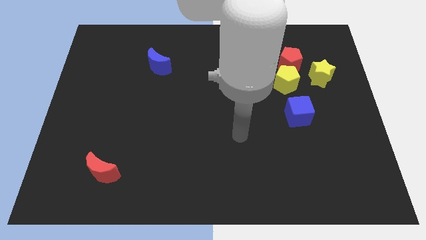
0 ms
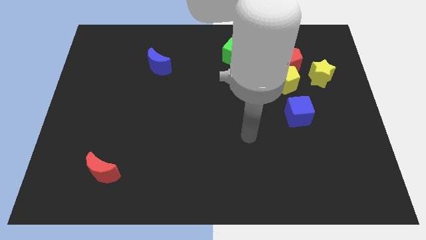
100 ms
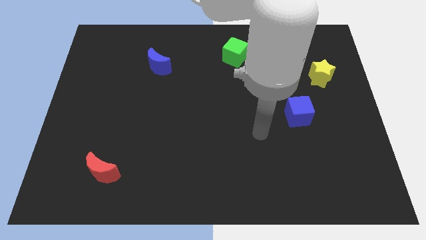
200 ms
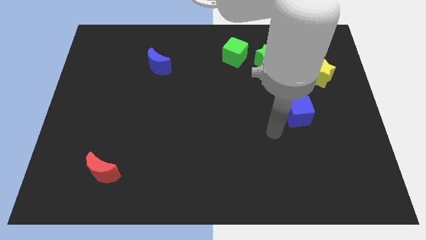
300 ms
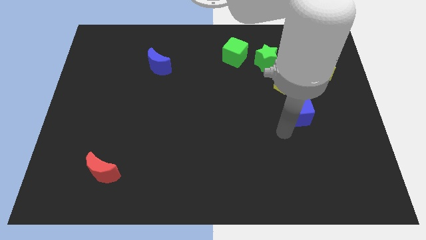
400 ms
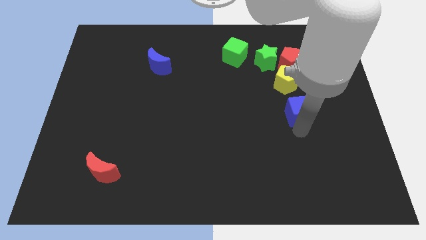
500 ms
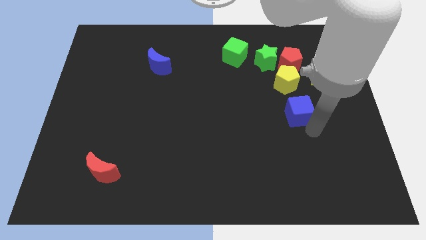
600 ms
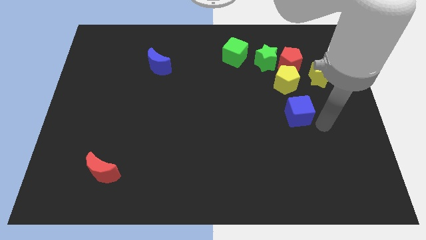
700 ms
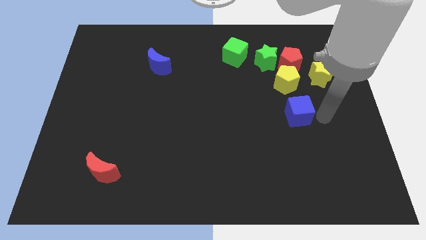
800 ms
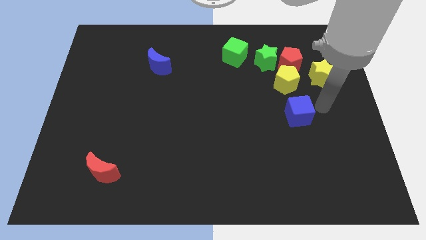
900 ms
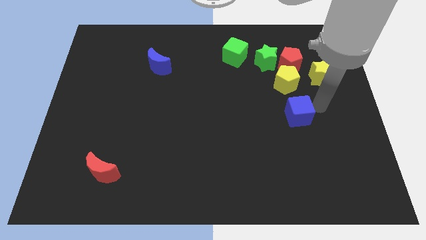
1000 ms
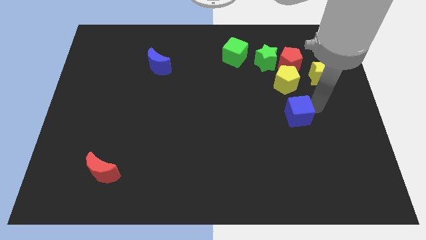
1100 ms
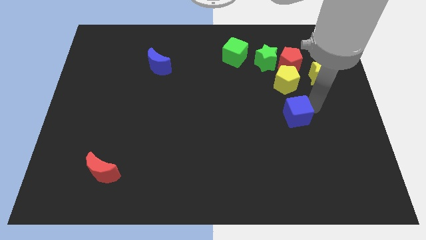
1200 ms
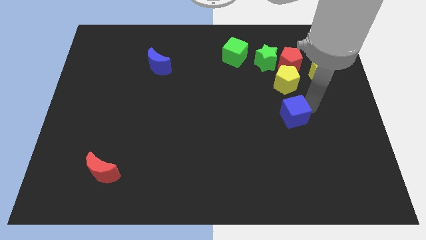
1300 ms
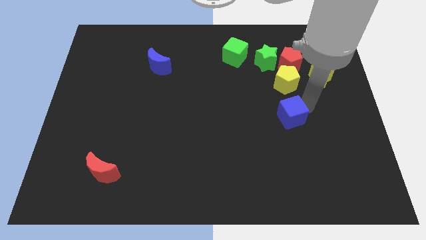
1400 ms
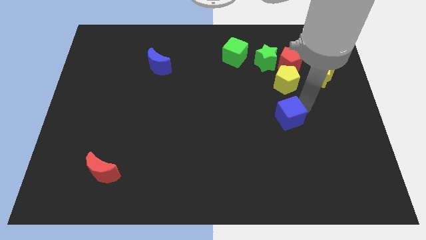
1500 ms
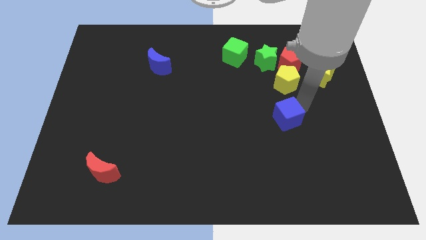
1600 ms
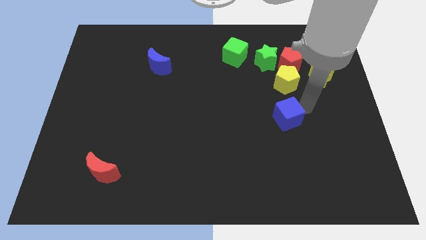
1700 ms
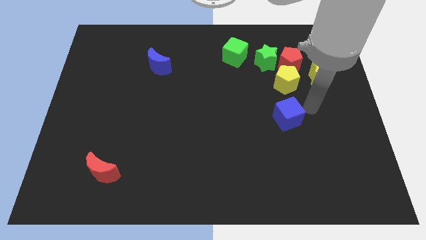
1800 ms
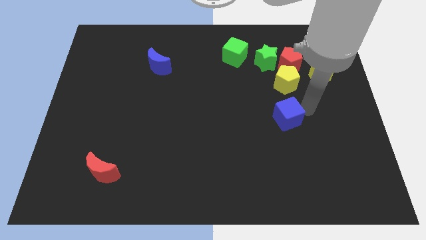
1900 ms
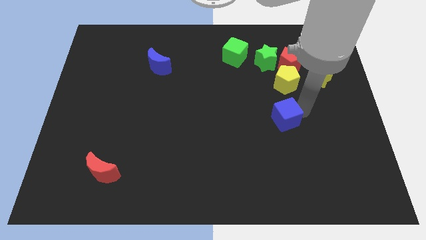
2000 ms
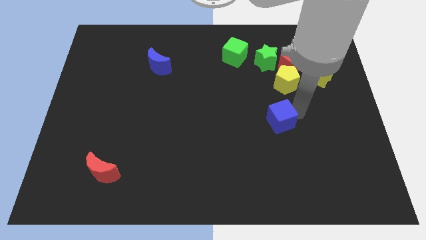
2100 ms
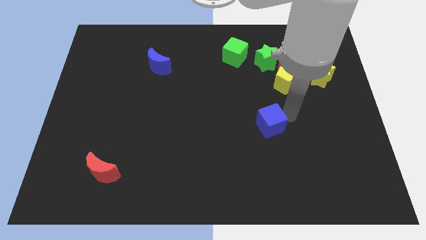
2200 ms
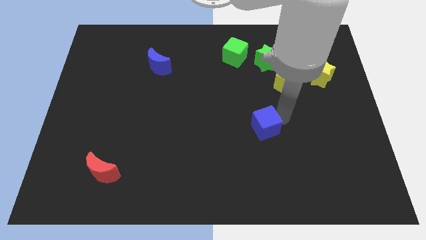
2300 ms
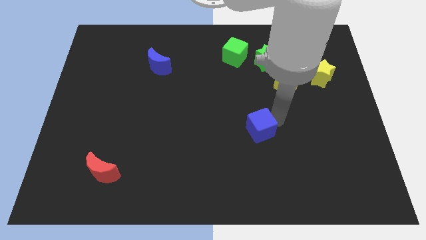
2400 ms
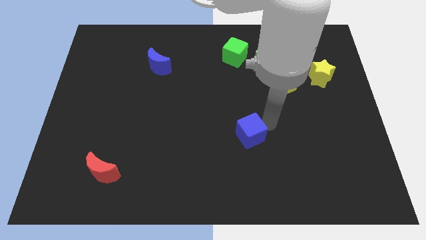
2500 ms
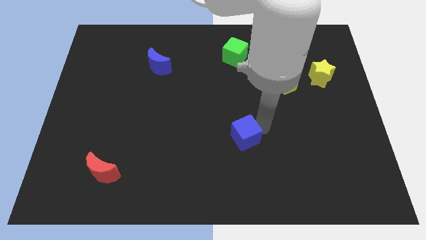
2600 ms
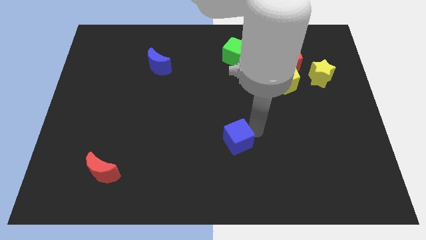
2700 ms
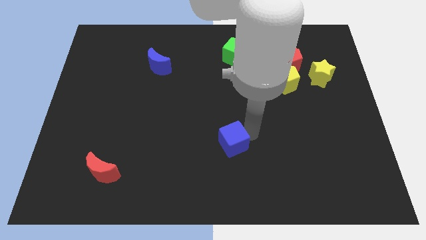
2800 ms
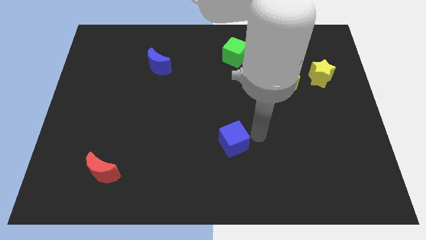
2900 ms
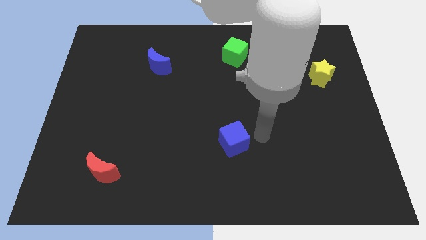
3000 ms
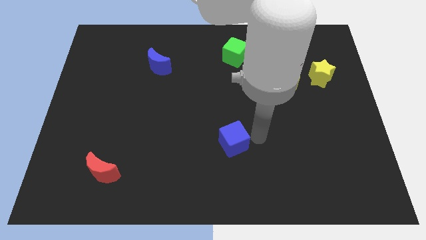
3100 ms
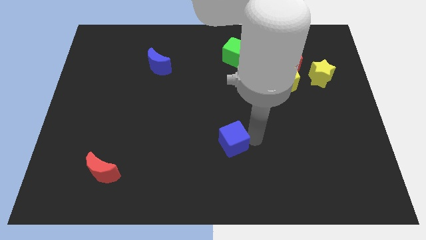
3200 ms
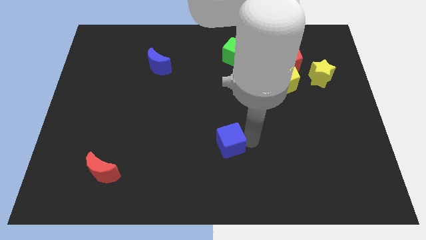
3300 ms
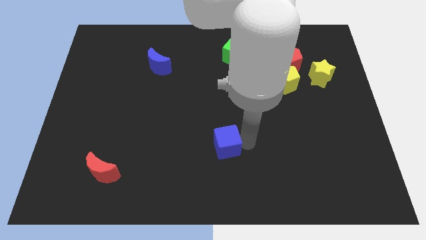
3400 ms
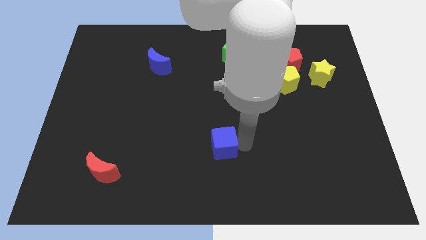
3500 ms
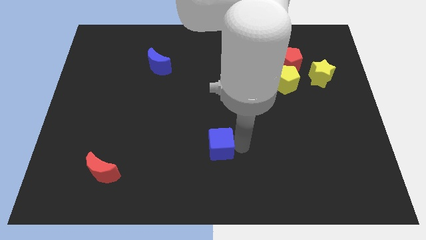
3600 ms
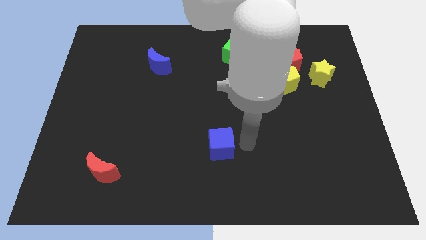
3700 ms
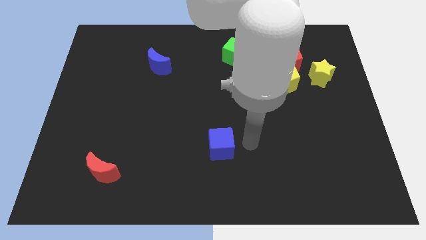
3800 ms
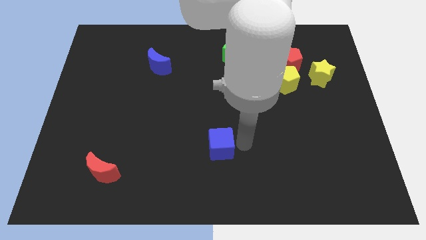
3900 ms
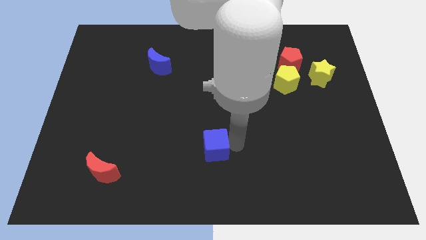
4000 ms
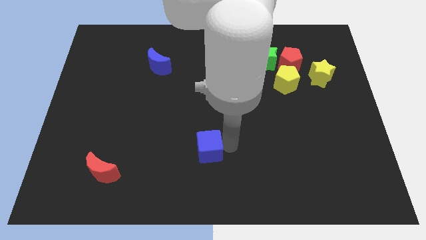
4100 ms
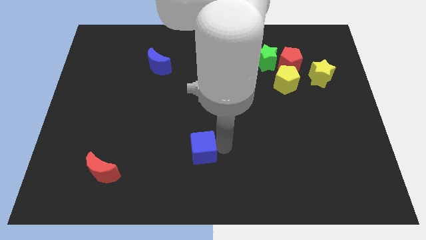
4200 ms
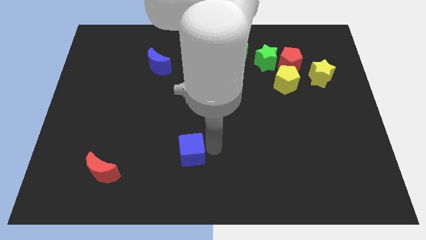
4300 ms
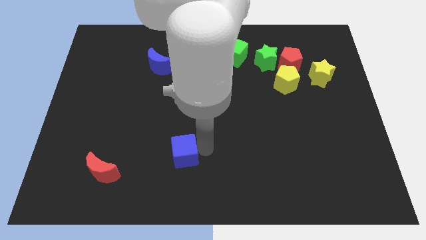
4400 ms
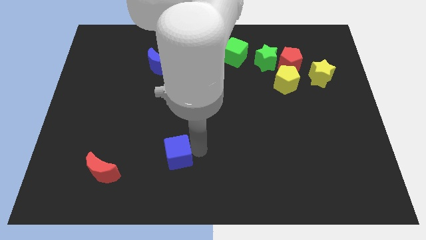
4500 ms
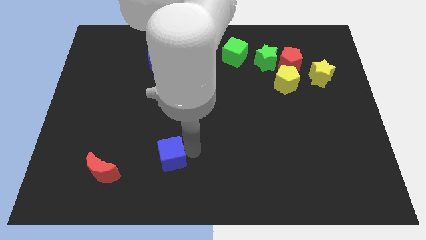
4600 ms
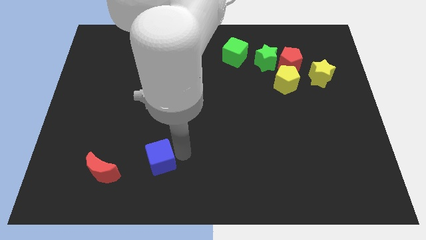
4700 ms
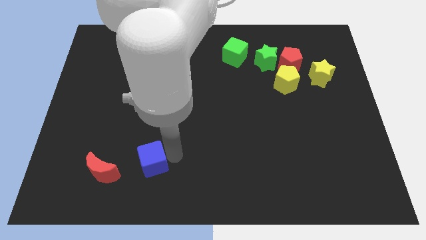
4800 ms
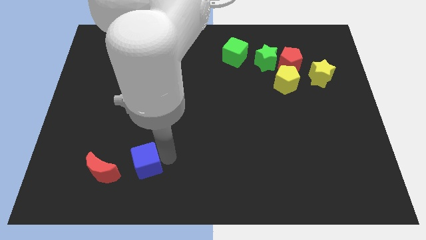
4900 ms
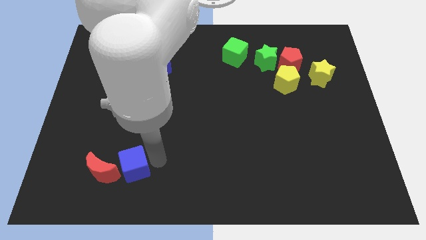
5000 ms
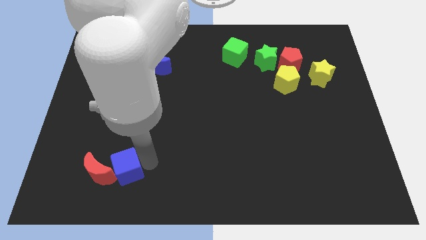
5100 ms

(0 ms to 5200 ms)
slide the blue cube towards the red moon

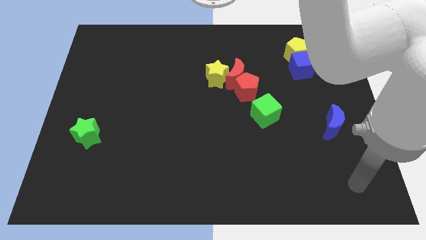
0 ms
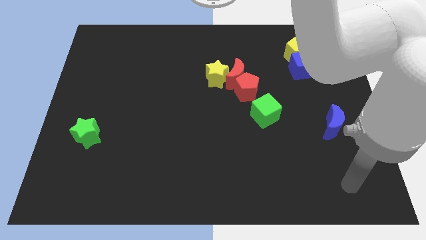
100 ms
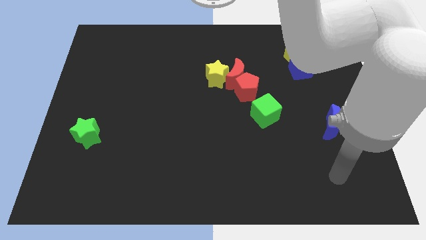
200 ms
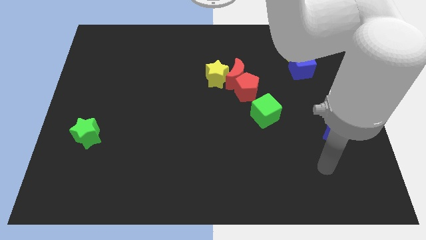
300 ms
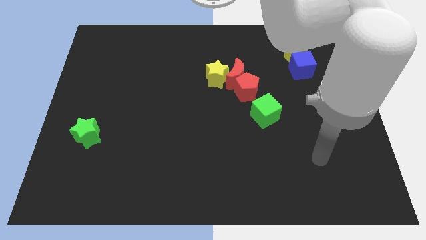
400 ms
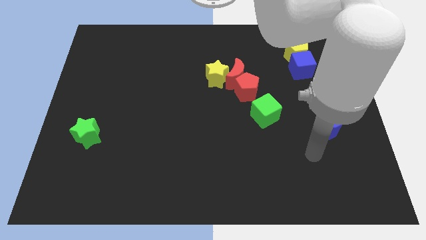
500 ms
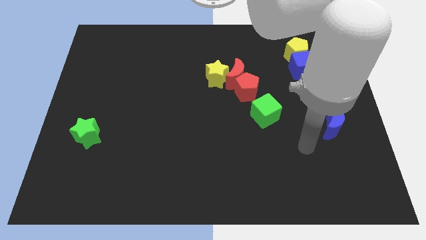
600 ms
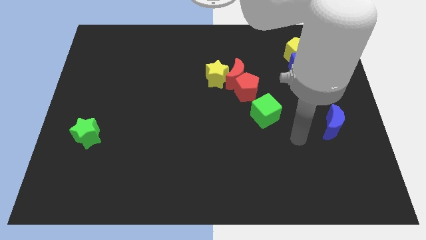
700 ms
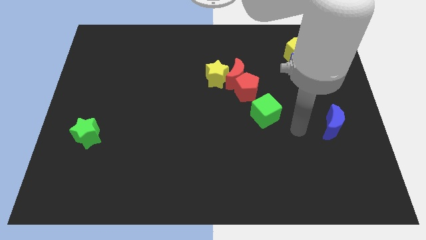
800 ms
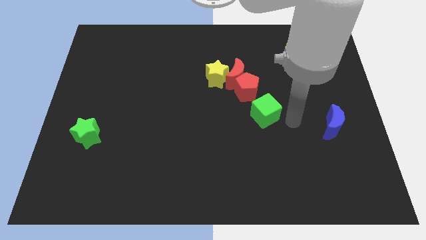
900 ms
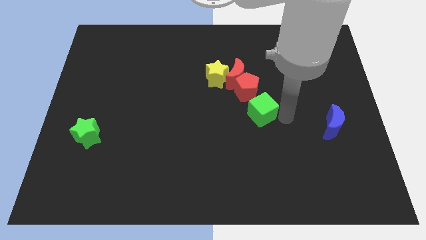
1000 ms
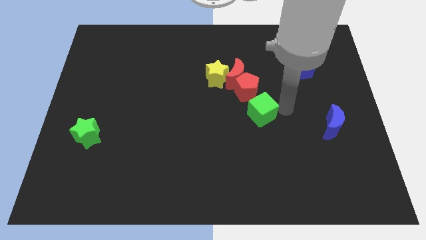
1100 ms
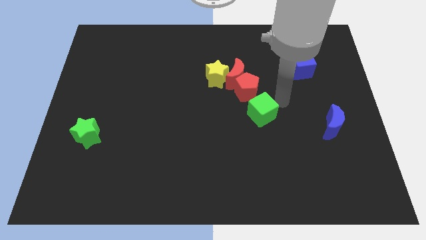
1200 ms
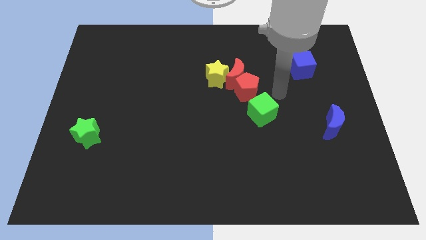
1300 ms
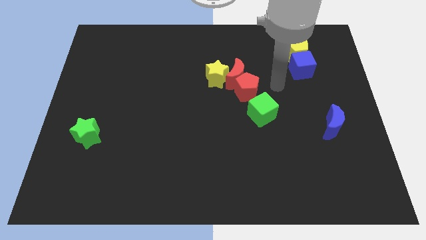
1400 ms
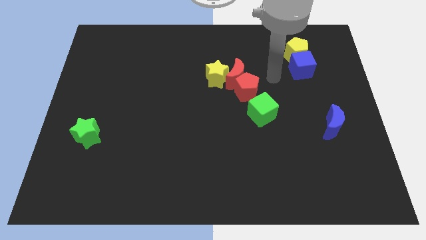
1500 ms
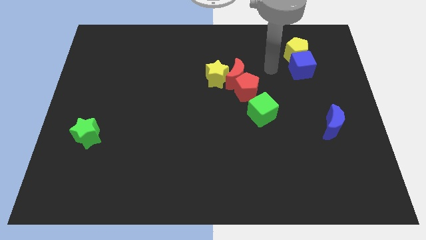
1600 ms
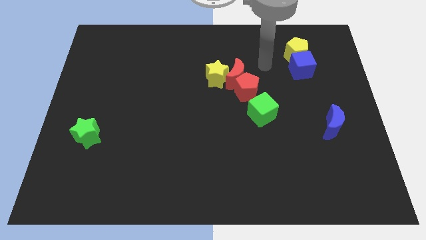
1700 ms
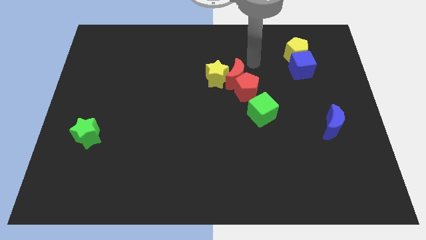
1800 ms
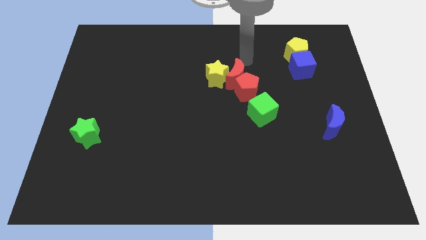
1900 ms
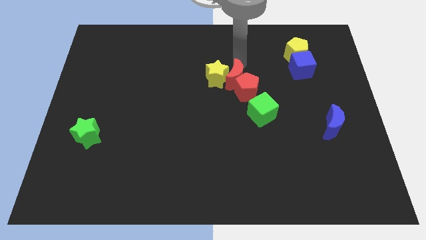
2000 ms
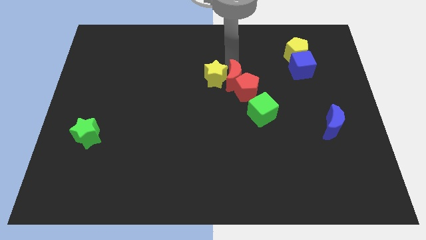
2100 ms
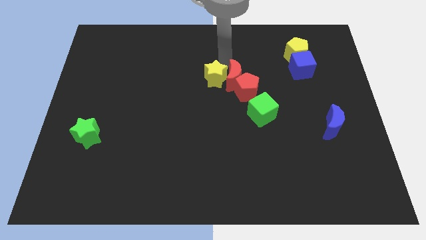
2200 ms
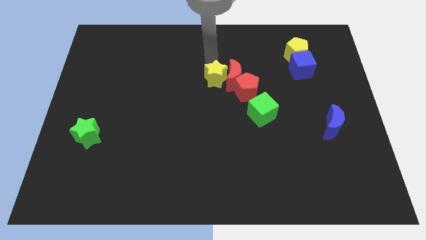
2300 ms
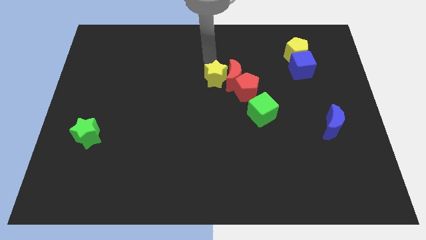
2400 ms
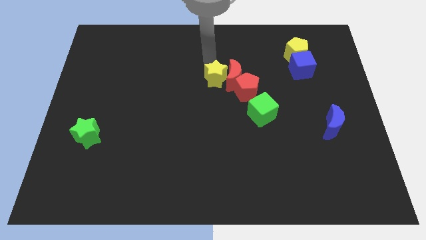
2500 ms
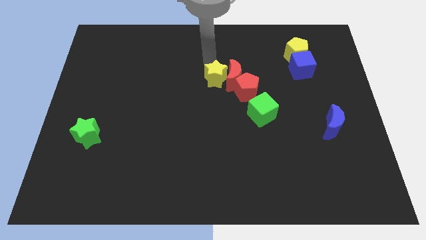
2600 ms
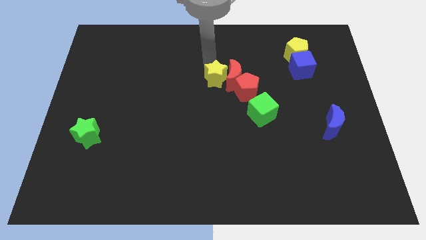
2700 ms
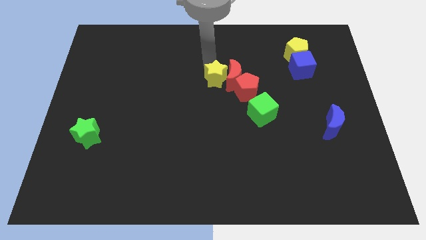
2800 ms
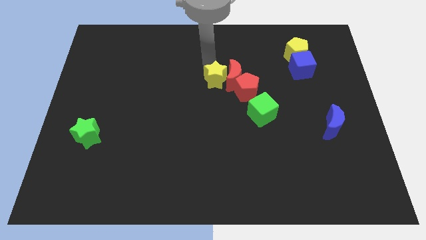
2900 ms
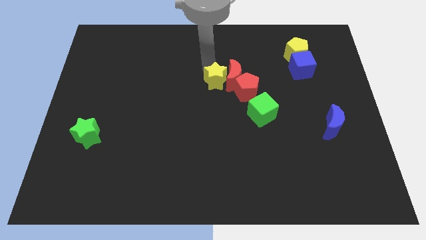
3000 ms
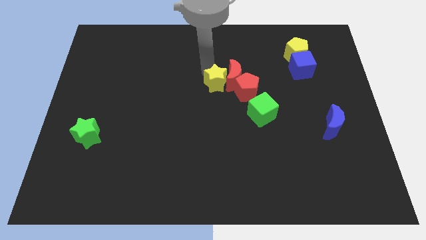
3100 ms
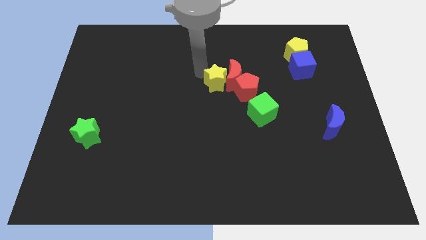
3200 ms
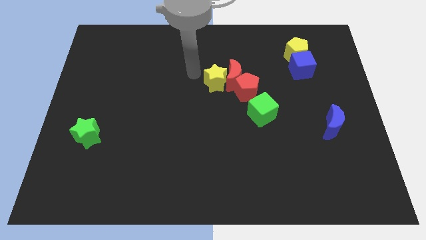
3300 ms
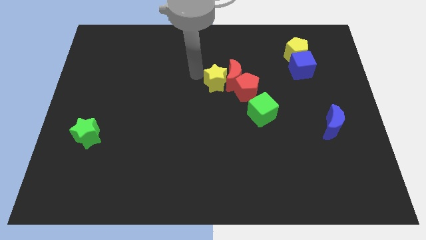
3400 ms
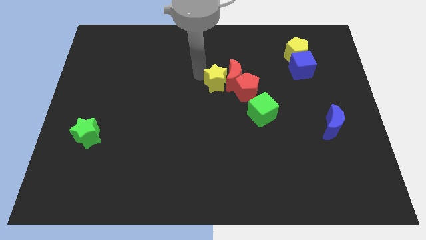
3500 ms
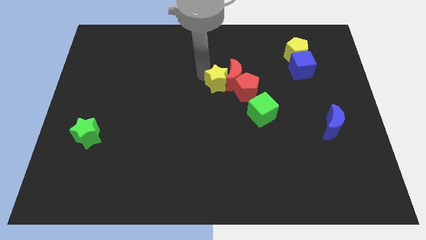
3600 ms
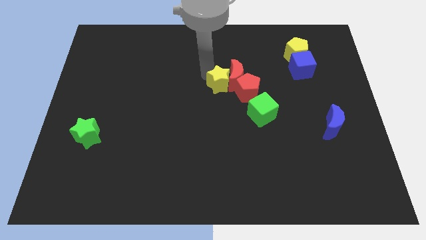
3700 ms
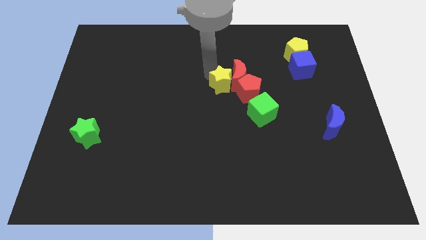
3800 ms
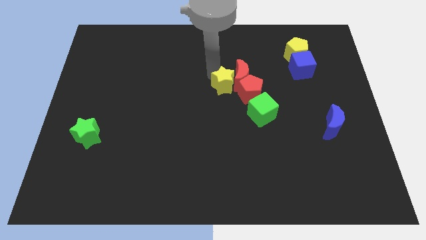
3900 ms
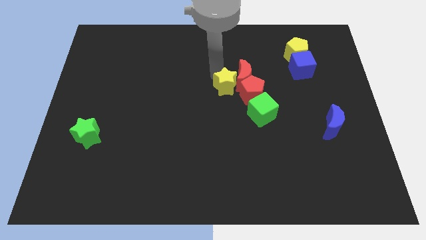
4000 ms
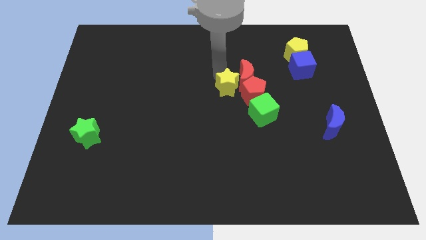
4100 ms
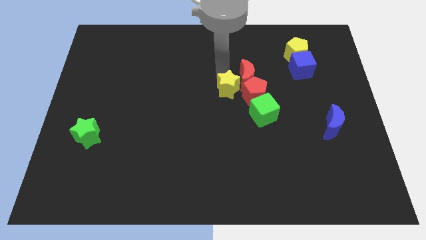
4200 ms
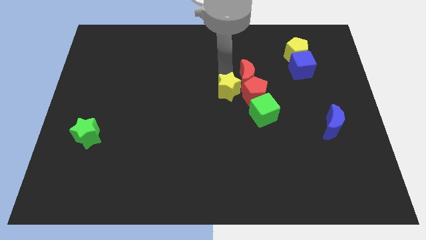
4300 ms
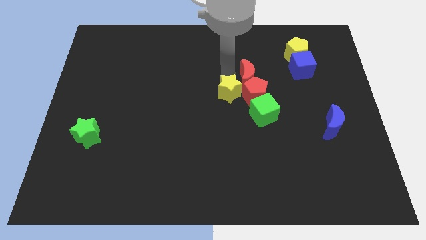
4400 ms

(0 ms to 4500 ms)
slide the yellow star to the red pentagon
